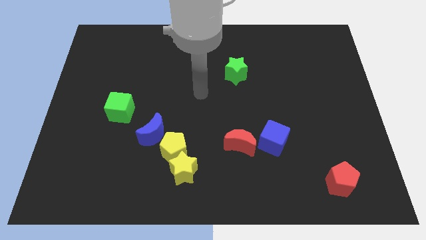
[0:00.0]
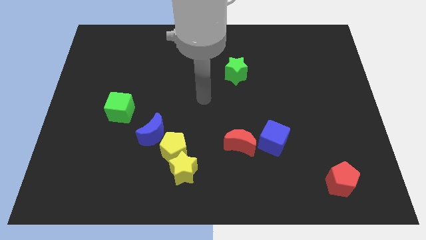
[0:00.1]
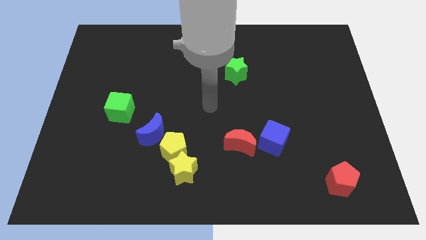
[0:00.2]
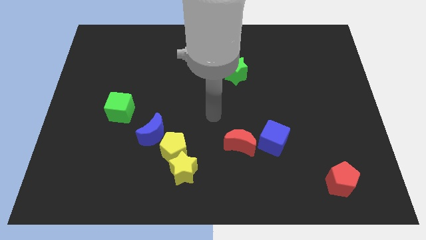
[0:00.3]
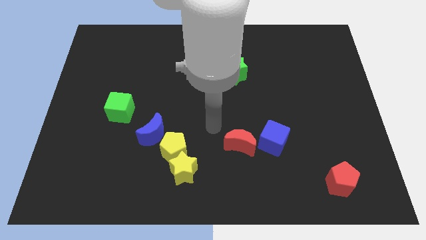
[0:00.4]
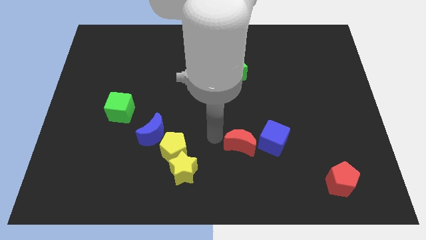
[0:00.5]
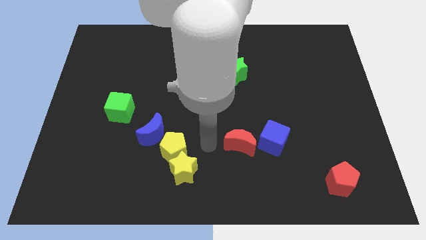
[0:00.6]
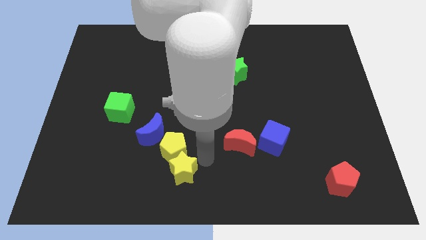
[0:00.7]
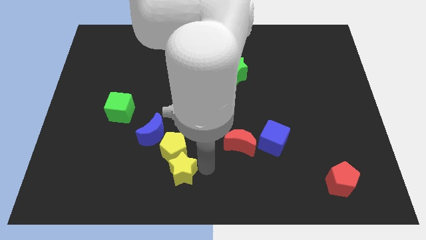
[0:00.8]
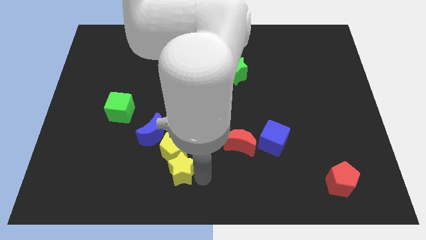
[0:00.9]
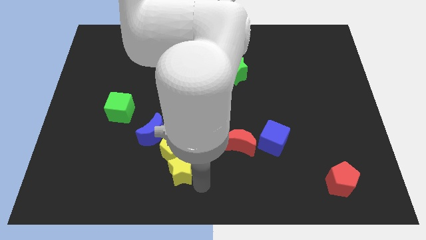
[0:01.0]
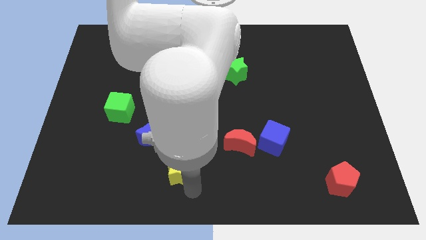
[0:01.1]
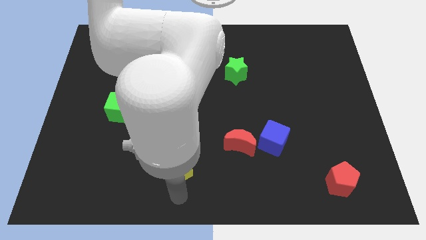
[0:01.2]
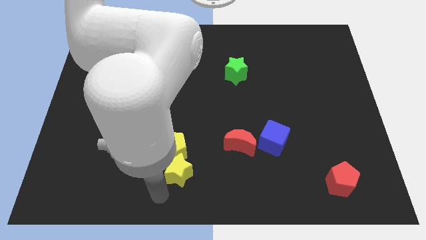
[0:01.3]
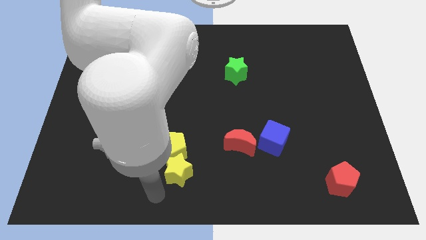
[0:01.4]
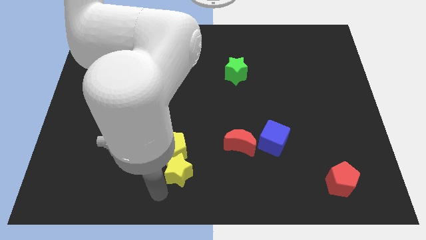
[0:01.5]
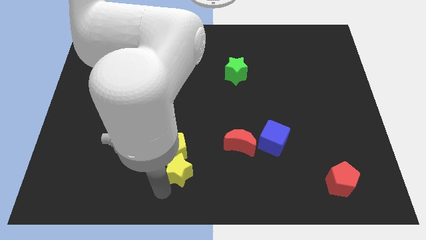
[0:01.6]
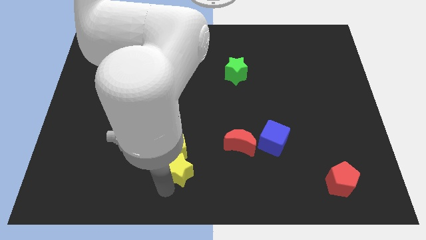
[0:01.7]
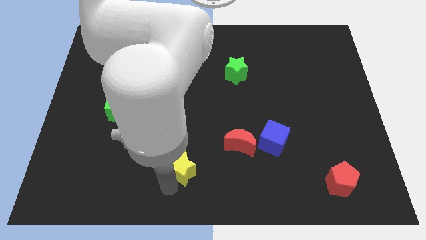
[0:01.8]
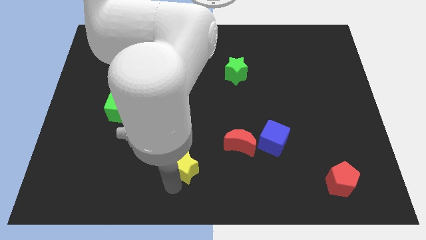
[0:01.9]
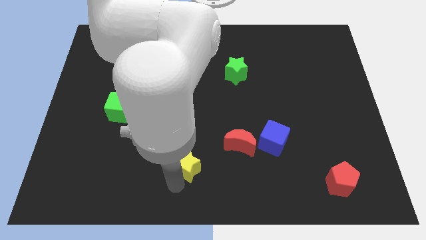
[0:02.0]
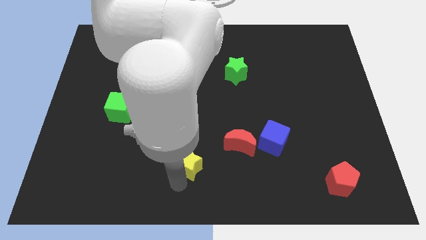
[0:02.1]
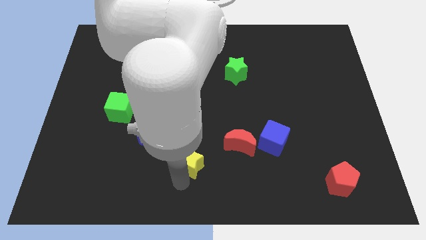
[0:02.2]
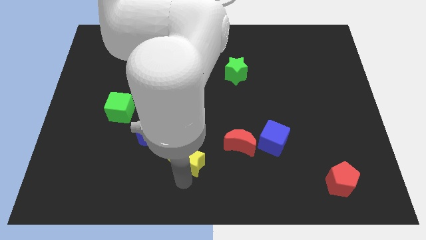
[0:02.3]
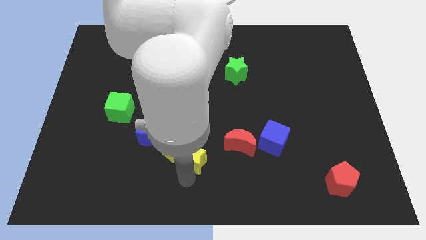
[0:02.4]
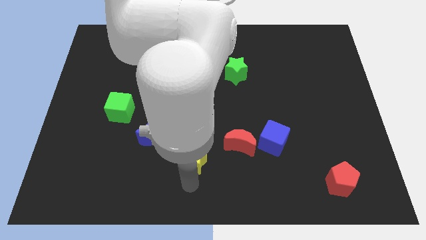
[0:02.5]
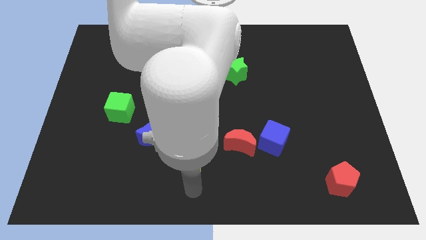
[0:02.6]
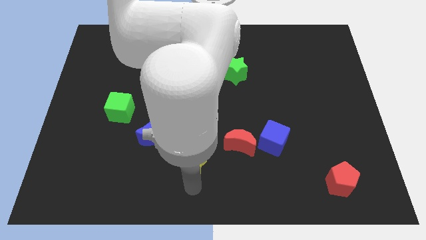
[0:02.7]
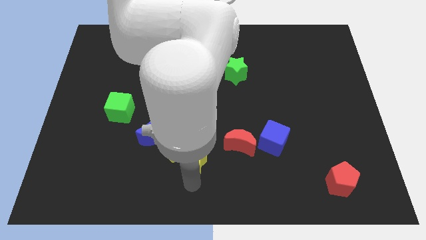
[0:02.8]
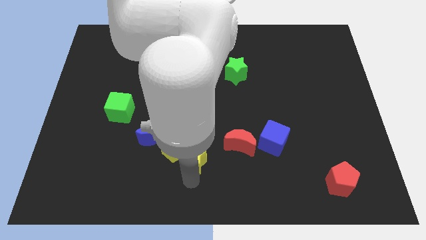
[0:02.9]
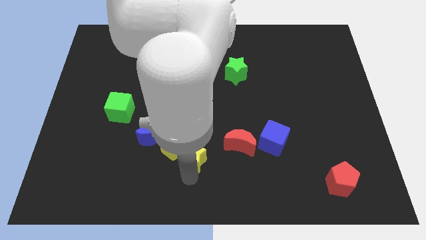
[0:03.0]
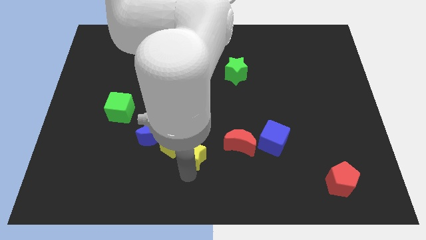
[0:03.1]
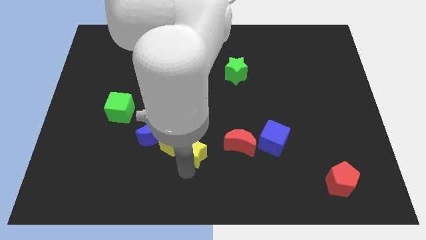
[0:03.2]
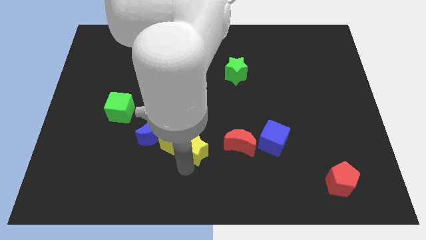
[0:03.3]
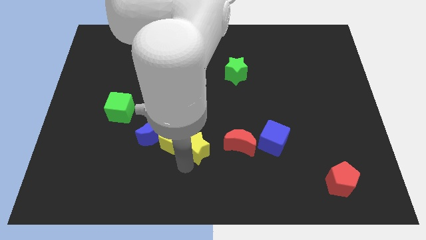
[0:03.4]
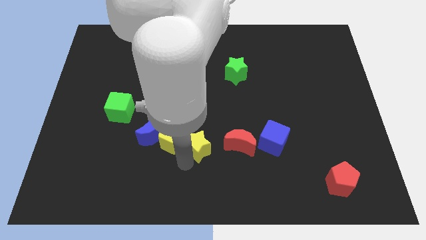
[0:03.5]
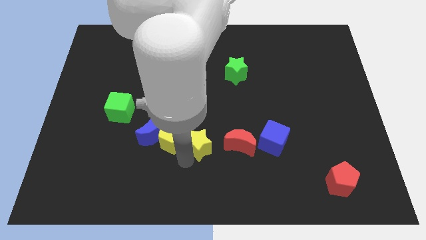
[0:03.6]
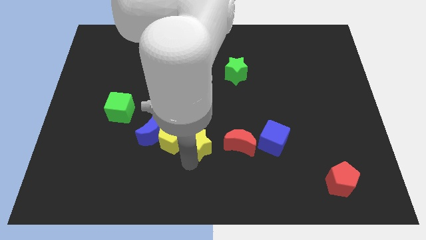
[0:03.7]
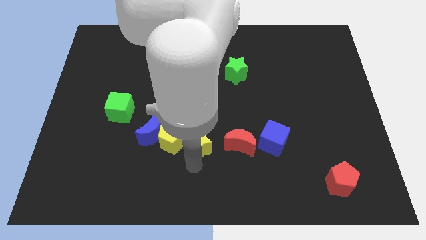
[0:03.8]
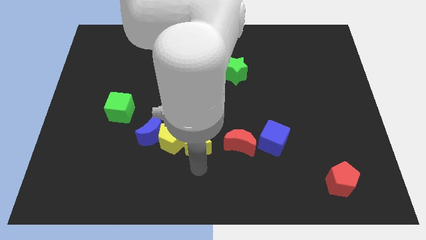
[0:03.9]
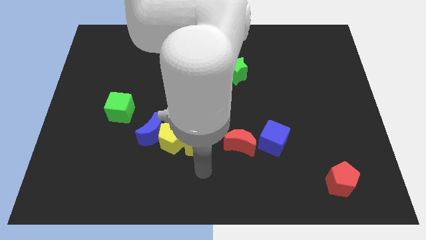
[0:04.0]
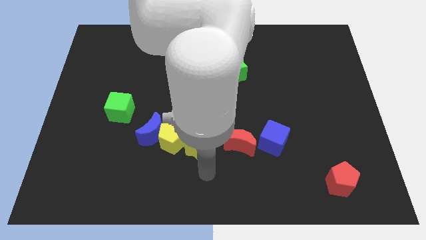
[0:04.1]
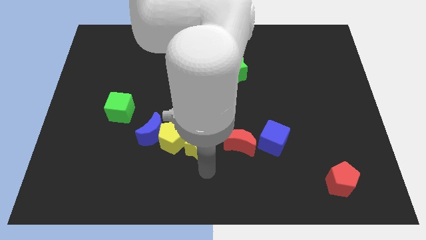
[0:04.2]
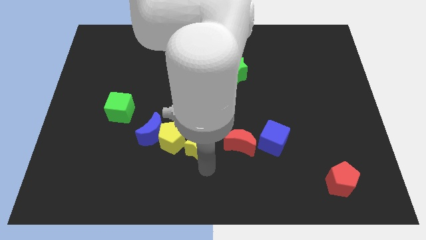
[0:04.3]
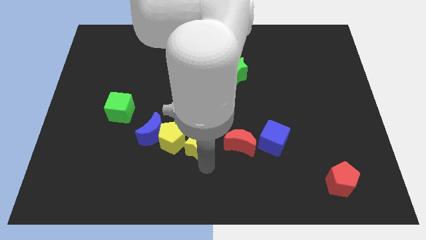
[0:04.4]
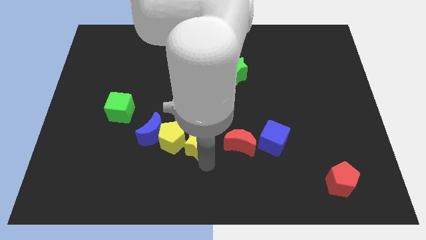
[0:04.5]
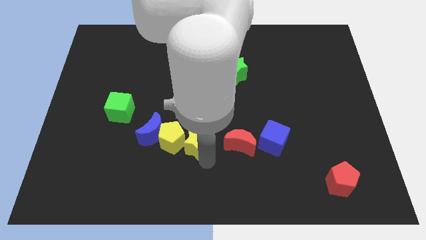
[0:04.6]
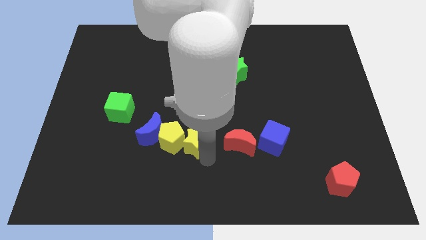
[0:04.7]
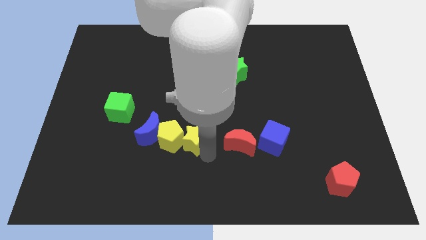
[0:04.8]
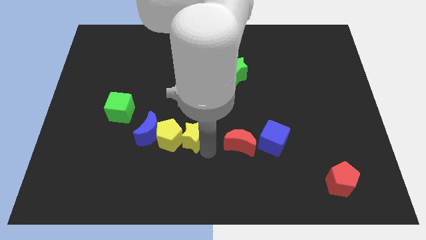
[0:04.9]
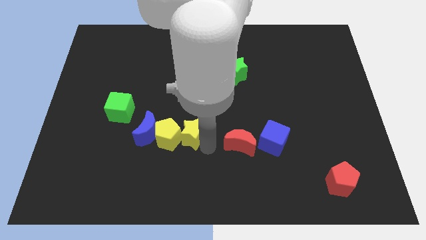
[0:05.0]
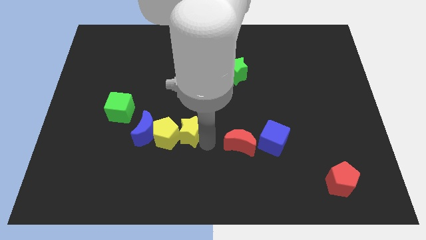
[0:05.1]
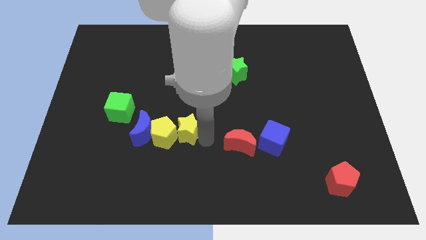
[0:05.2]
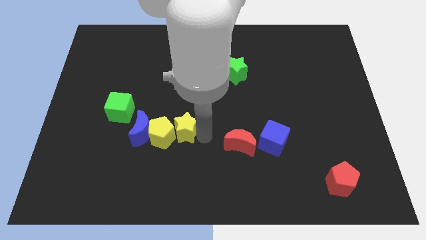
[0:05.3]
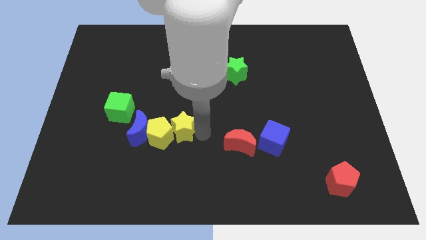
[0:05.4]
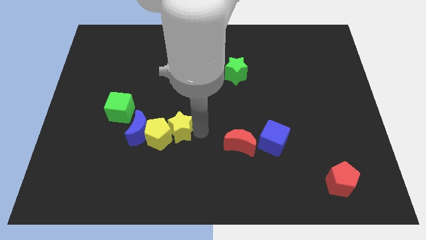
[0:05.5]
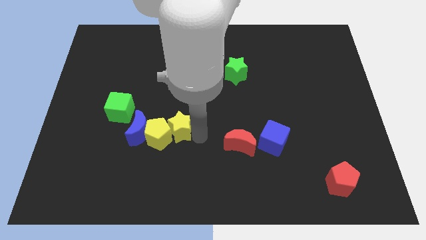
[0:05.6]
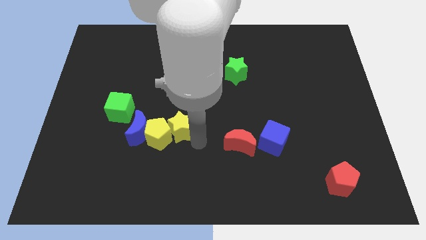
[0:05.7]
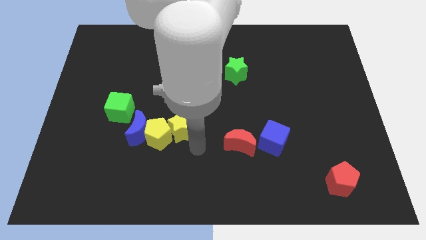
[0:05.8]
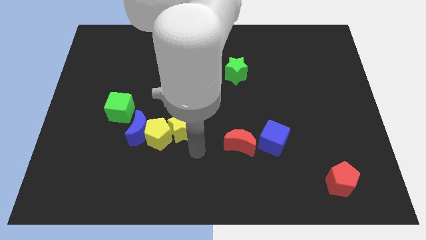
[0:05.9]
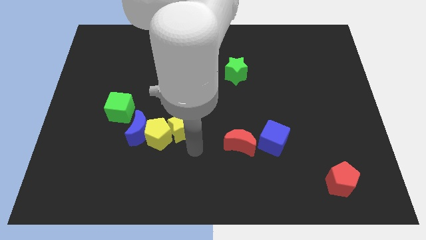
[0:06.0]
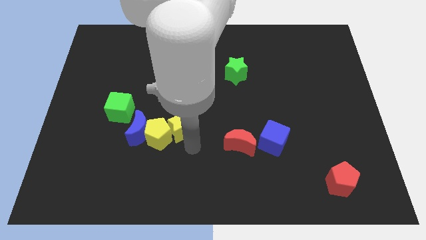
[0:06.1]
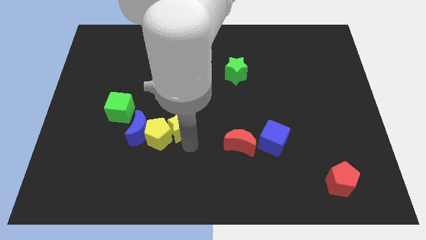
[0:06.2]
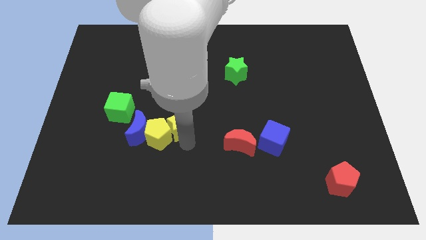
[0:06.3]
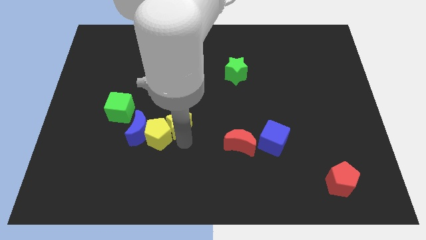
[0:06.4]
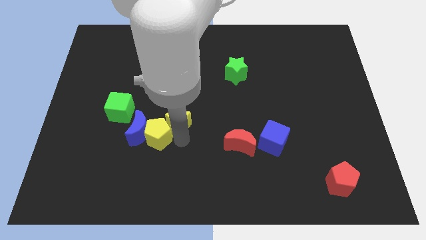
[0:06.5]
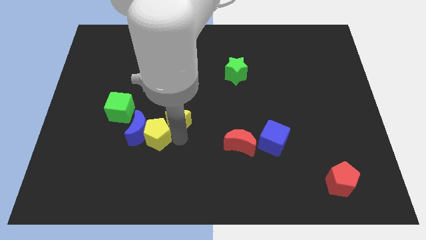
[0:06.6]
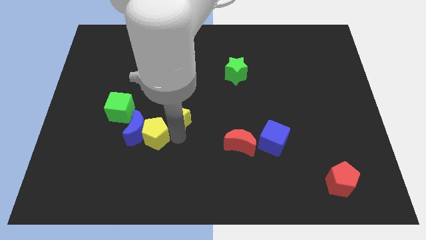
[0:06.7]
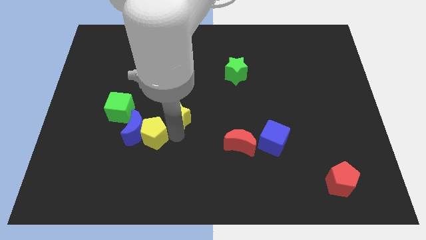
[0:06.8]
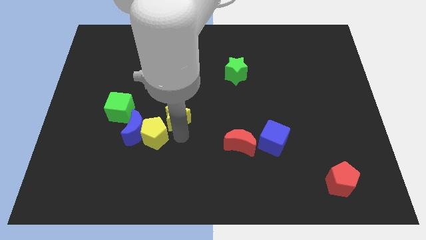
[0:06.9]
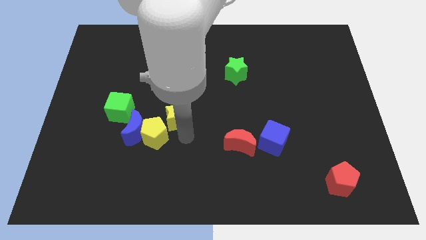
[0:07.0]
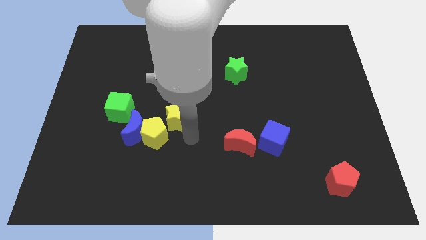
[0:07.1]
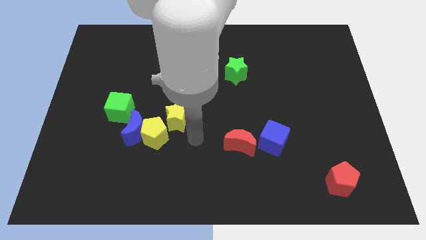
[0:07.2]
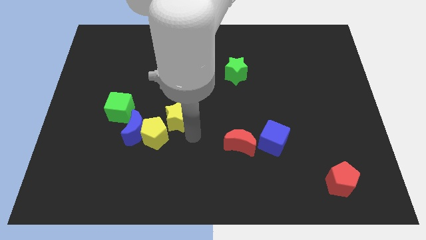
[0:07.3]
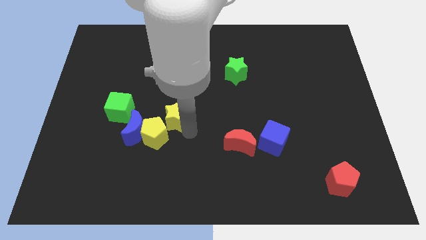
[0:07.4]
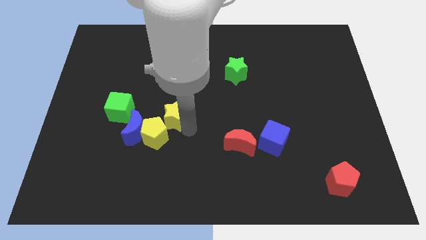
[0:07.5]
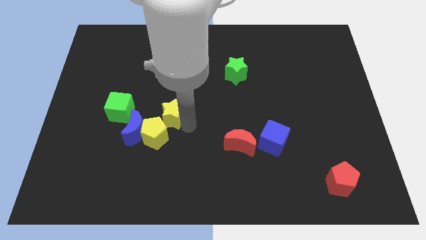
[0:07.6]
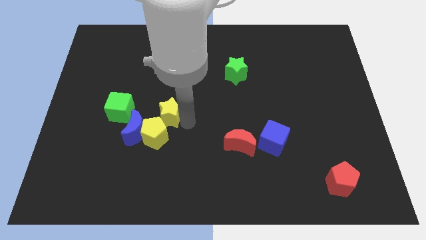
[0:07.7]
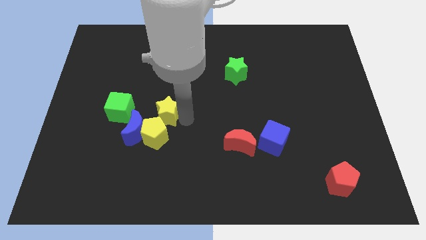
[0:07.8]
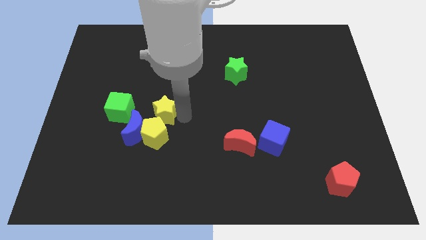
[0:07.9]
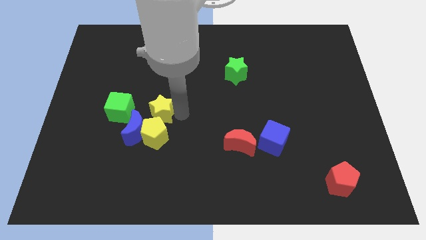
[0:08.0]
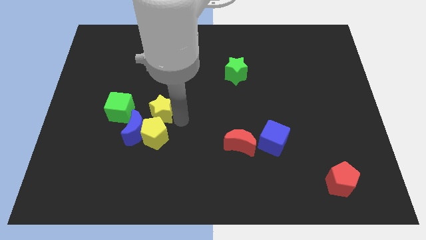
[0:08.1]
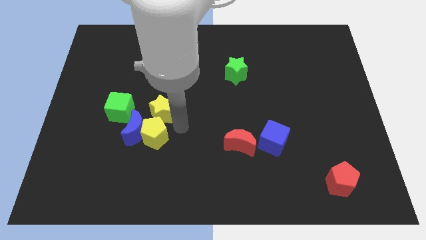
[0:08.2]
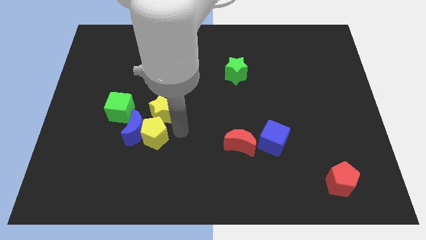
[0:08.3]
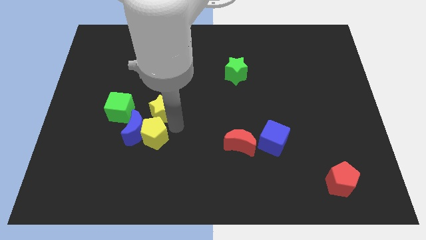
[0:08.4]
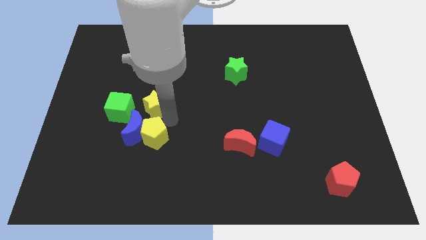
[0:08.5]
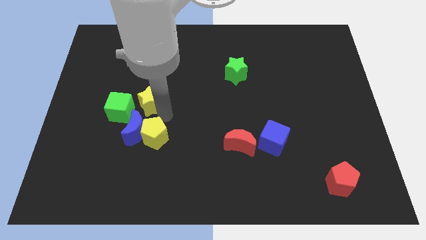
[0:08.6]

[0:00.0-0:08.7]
slide the yellow star diagonally up and to the right of the green cube
